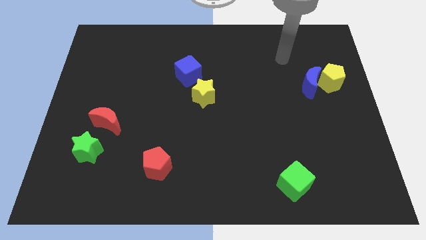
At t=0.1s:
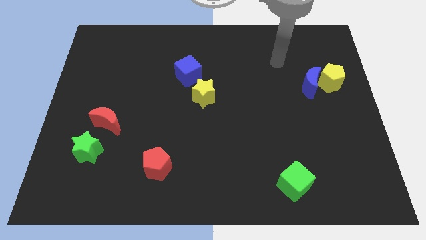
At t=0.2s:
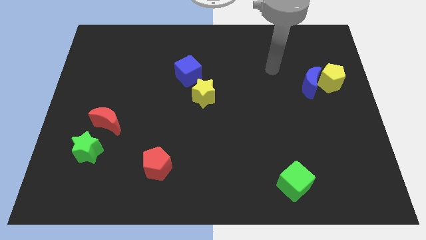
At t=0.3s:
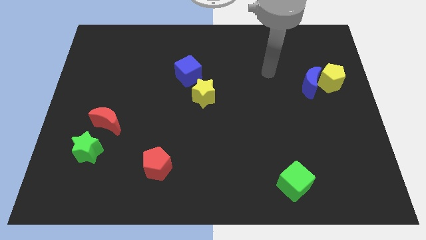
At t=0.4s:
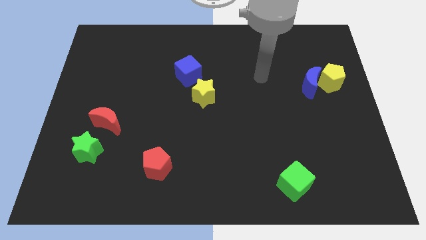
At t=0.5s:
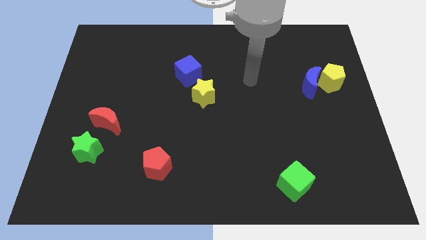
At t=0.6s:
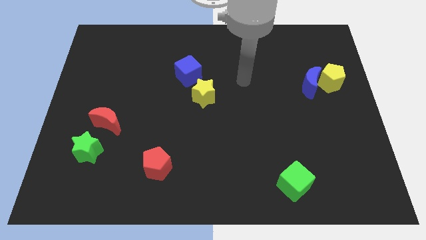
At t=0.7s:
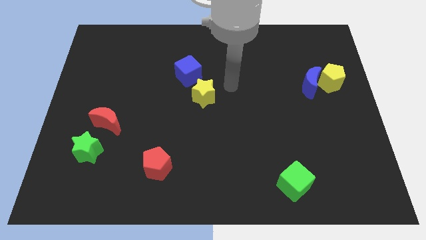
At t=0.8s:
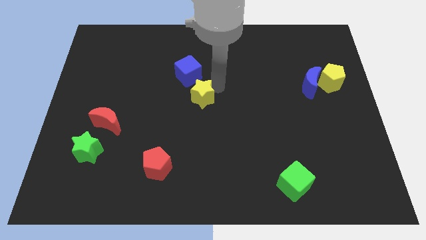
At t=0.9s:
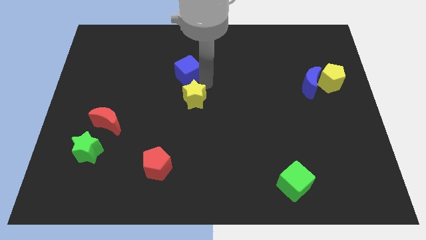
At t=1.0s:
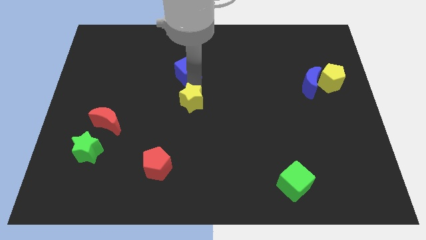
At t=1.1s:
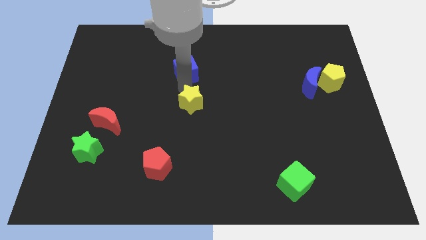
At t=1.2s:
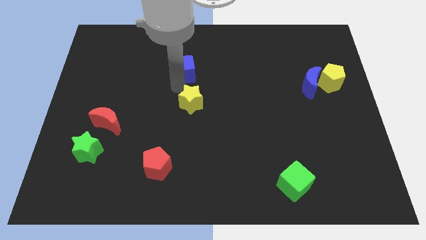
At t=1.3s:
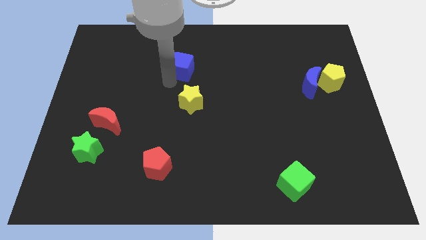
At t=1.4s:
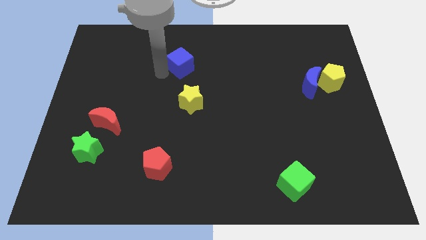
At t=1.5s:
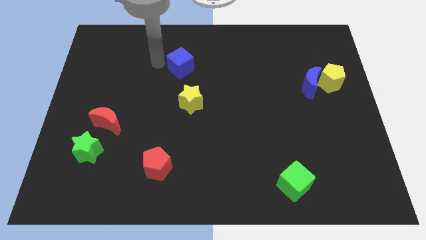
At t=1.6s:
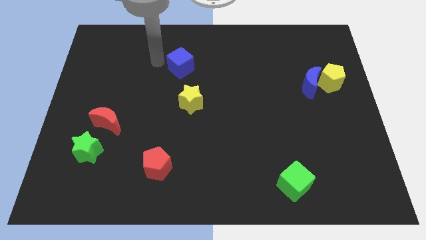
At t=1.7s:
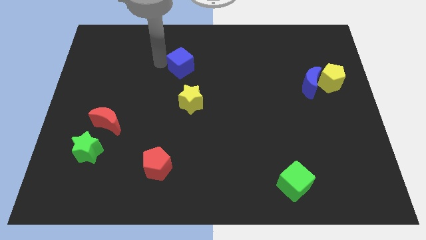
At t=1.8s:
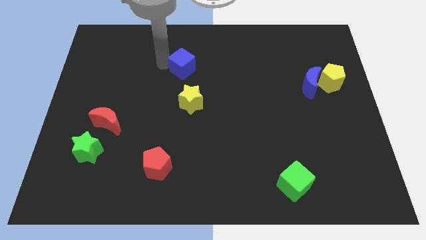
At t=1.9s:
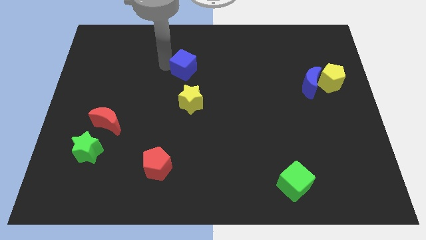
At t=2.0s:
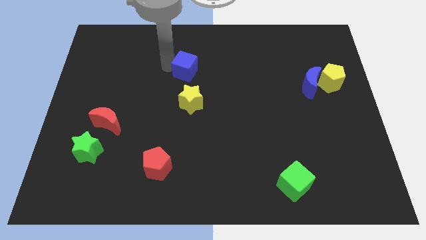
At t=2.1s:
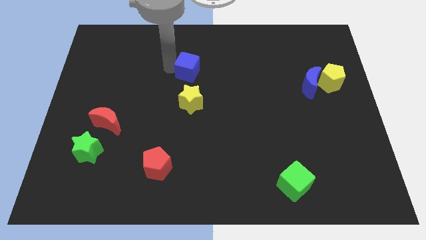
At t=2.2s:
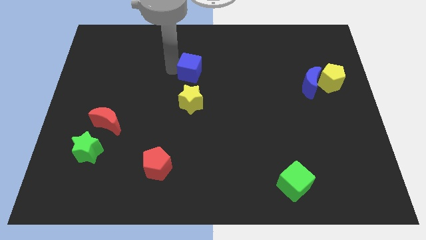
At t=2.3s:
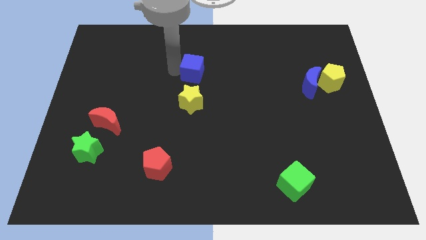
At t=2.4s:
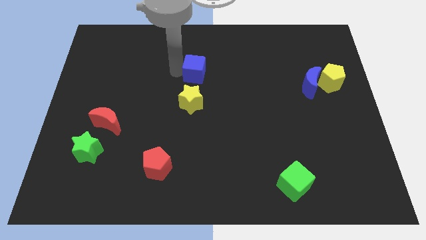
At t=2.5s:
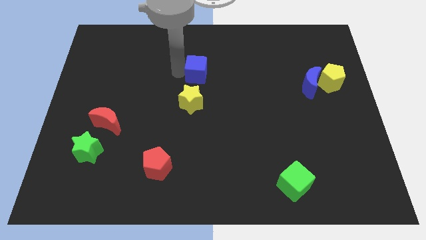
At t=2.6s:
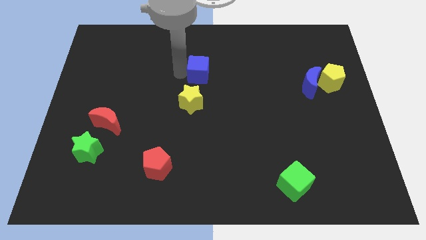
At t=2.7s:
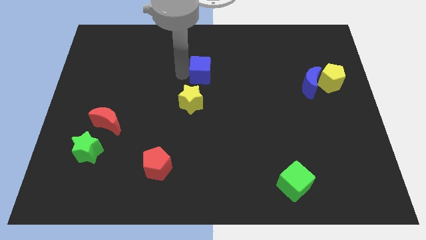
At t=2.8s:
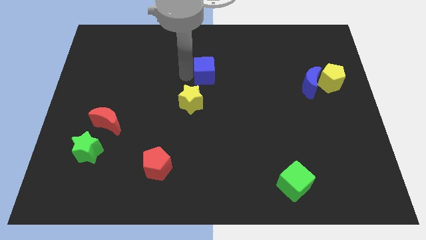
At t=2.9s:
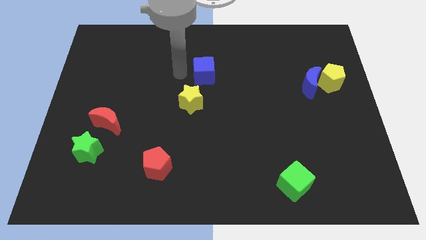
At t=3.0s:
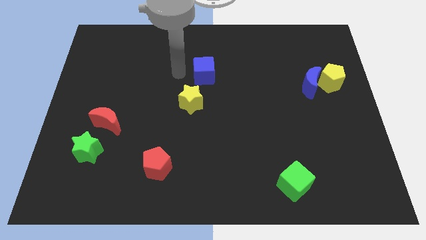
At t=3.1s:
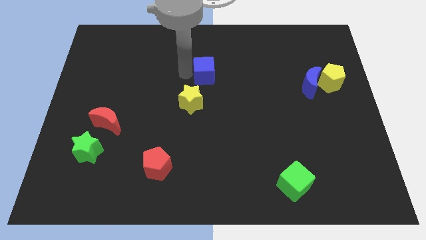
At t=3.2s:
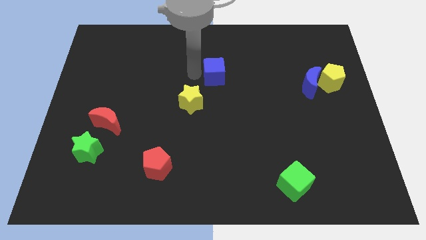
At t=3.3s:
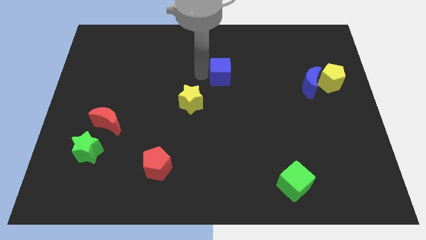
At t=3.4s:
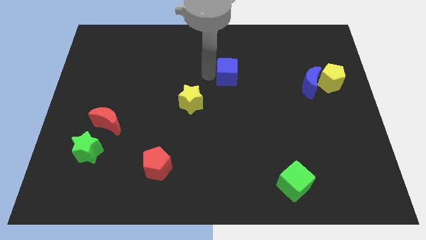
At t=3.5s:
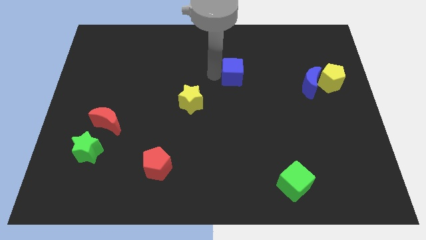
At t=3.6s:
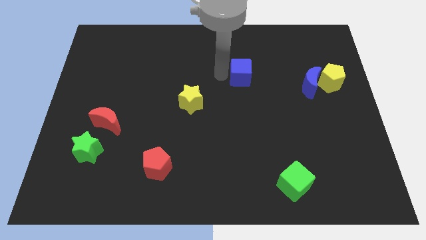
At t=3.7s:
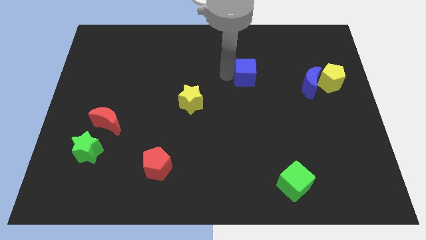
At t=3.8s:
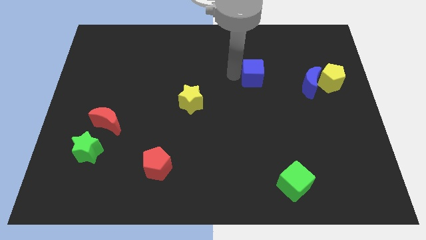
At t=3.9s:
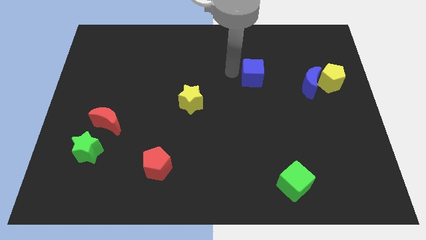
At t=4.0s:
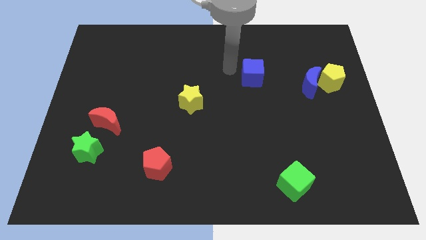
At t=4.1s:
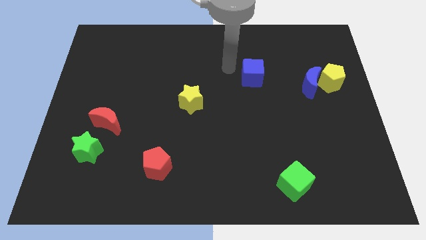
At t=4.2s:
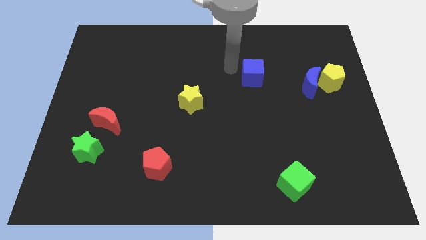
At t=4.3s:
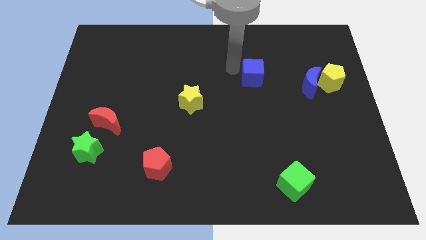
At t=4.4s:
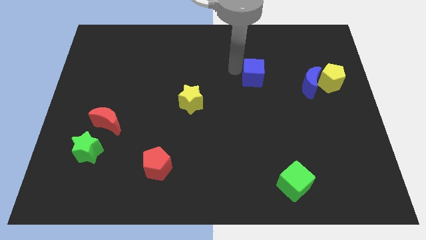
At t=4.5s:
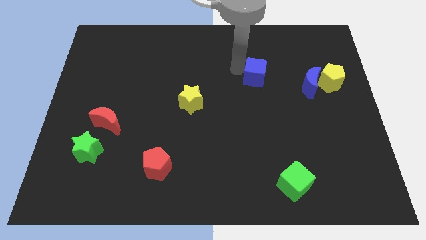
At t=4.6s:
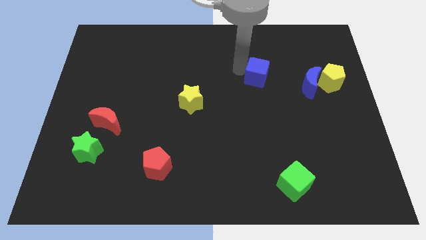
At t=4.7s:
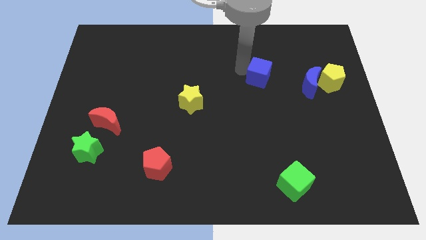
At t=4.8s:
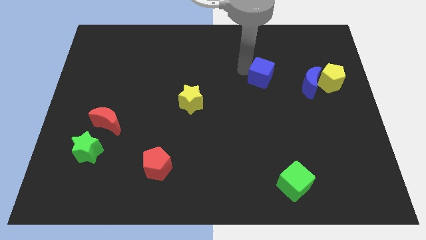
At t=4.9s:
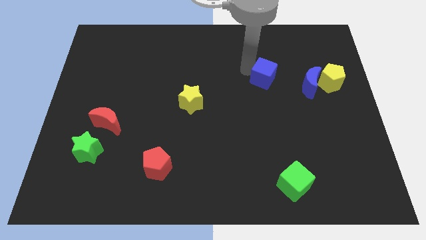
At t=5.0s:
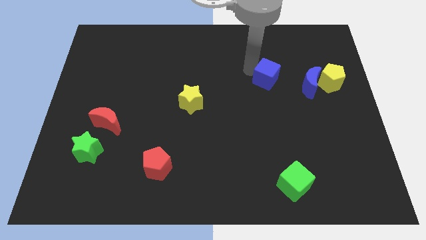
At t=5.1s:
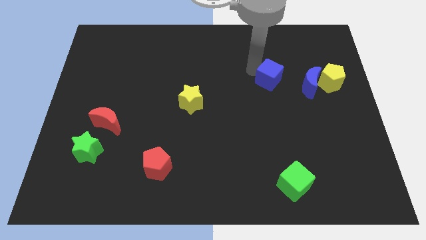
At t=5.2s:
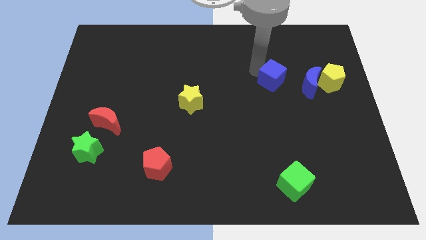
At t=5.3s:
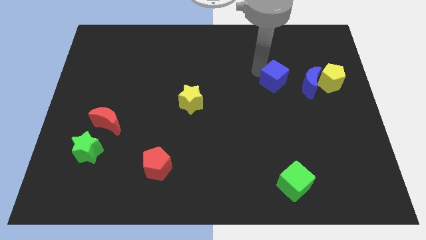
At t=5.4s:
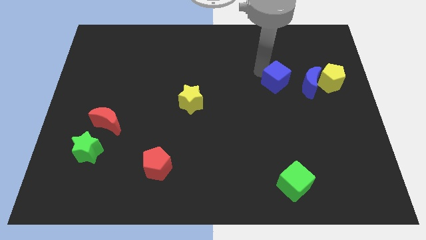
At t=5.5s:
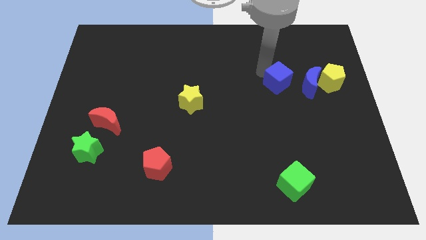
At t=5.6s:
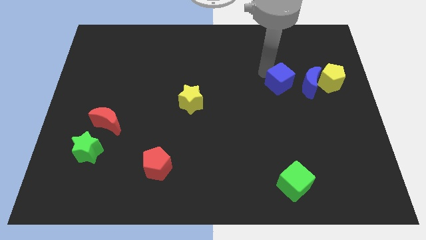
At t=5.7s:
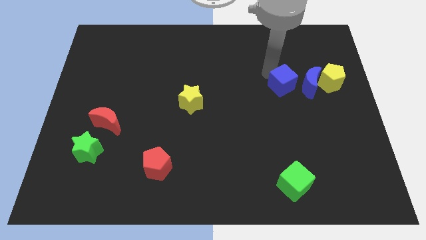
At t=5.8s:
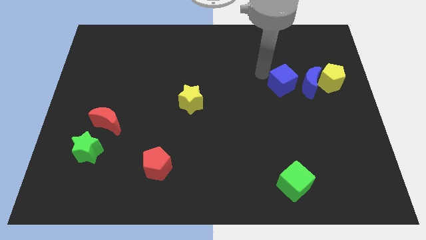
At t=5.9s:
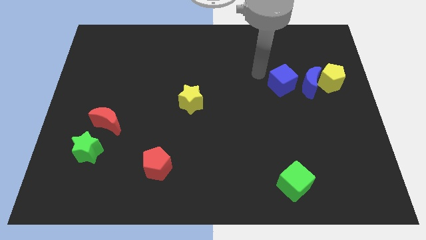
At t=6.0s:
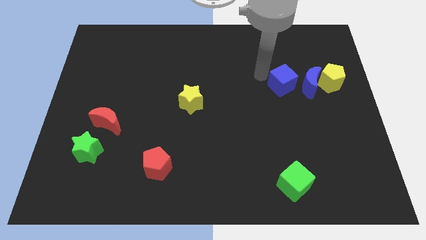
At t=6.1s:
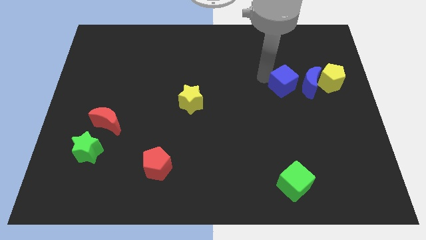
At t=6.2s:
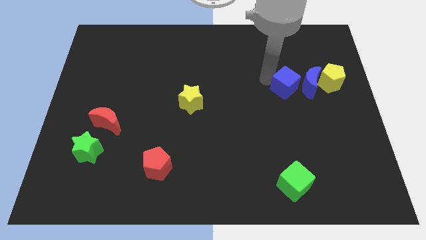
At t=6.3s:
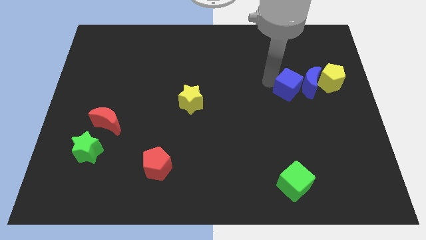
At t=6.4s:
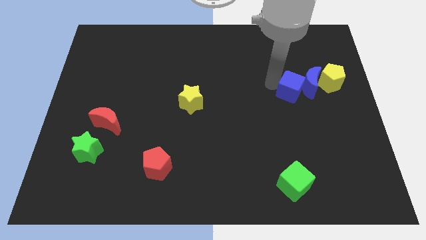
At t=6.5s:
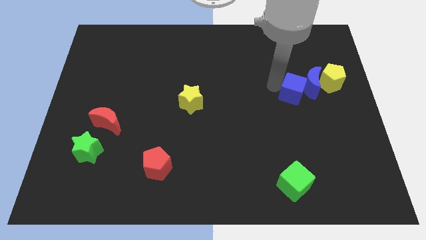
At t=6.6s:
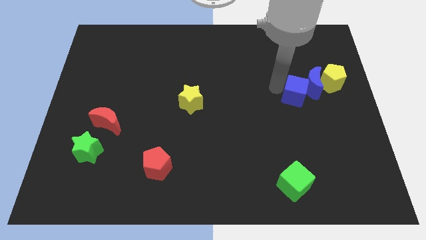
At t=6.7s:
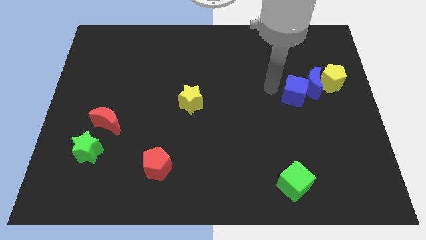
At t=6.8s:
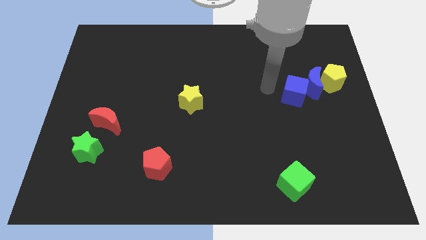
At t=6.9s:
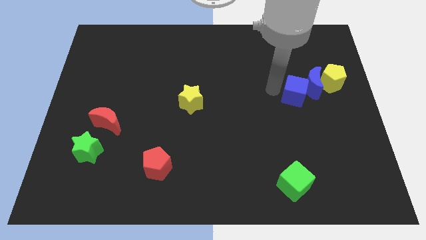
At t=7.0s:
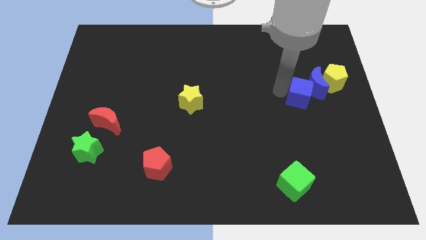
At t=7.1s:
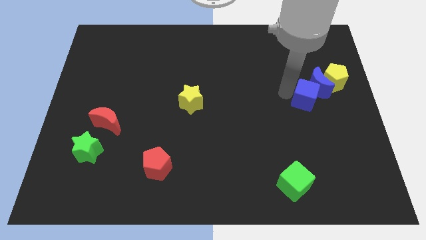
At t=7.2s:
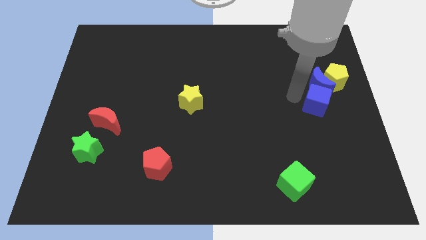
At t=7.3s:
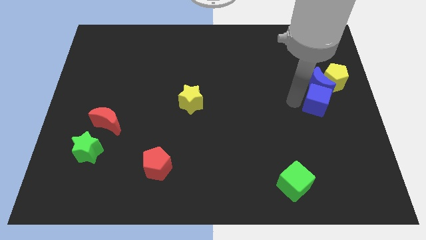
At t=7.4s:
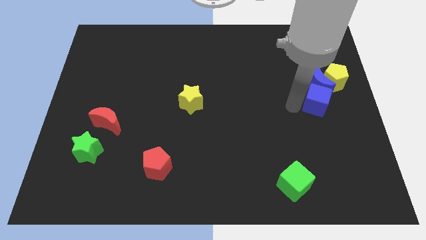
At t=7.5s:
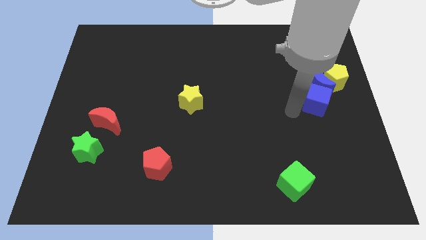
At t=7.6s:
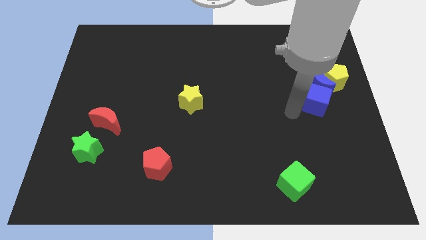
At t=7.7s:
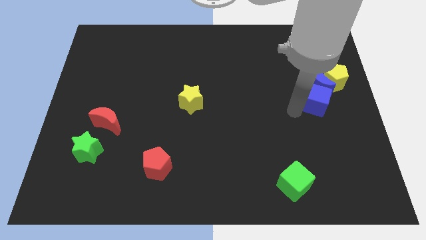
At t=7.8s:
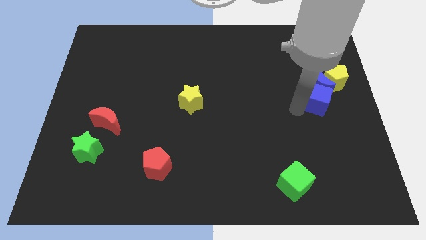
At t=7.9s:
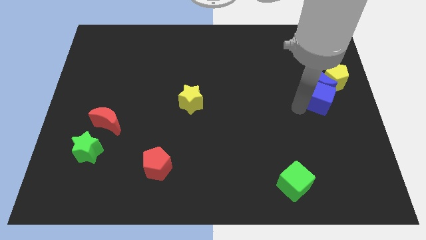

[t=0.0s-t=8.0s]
move the blue cube to the right side of the board
